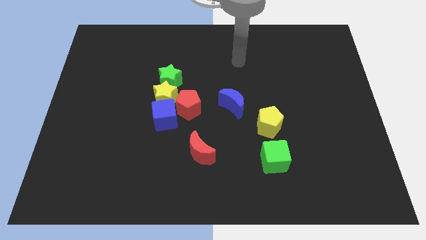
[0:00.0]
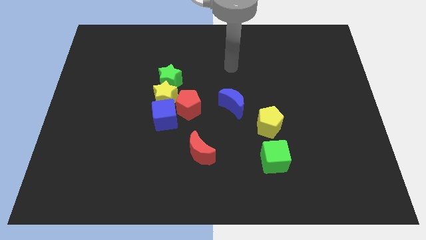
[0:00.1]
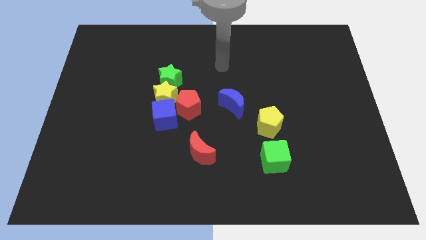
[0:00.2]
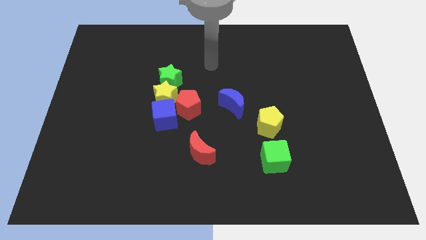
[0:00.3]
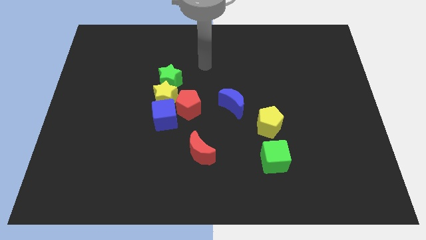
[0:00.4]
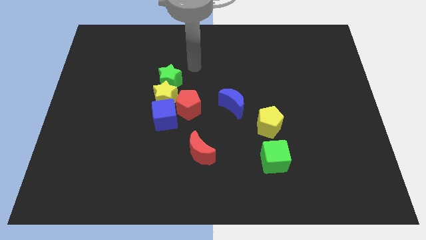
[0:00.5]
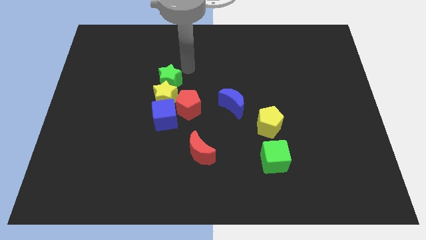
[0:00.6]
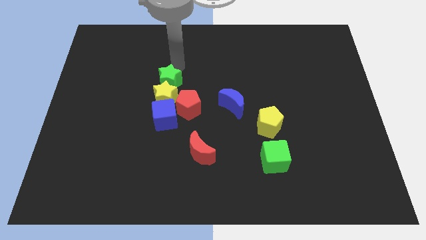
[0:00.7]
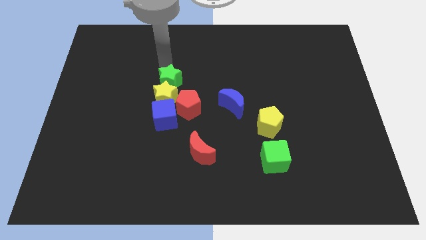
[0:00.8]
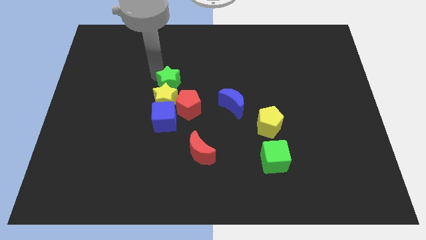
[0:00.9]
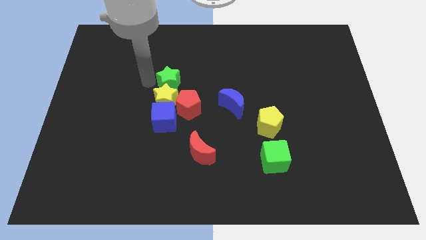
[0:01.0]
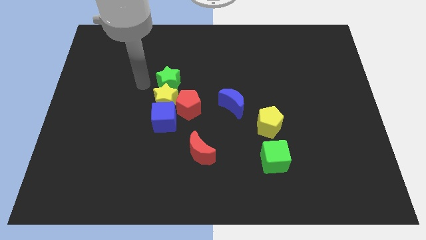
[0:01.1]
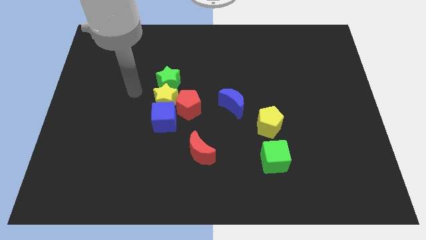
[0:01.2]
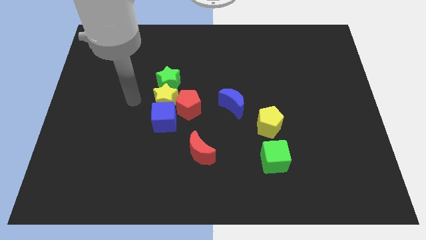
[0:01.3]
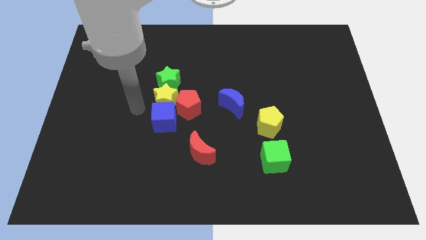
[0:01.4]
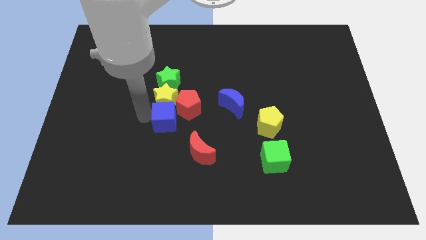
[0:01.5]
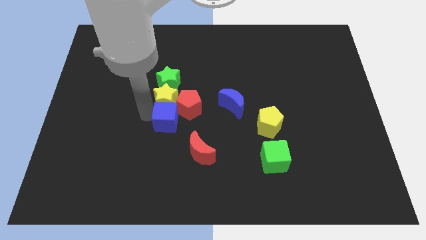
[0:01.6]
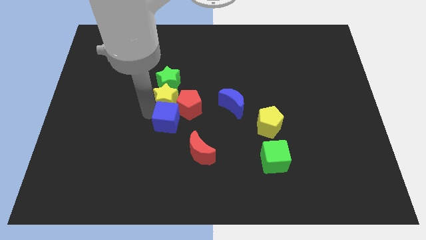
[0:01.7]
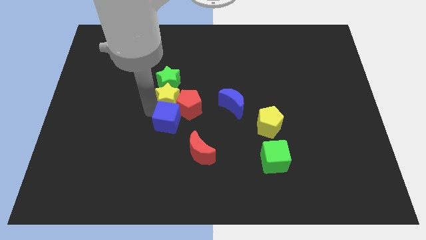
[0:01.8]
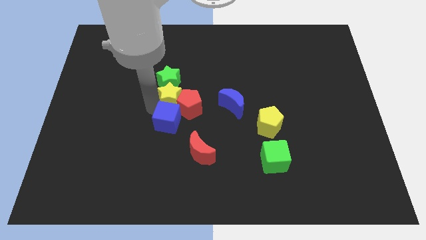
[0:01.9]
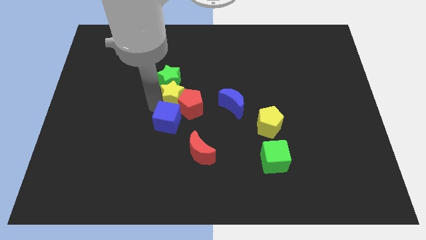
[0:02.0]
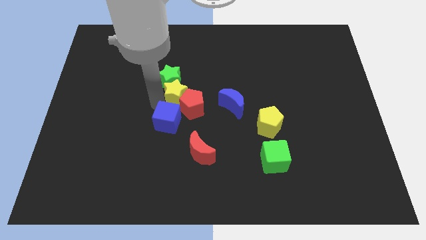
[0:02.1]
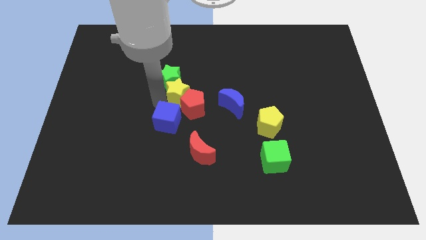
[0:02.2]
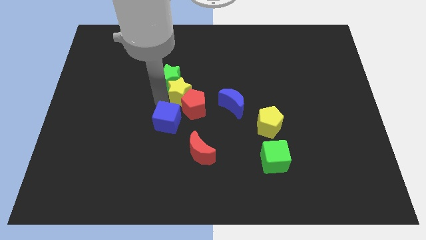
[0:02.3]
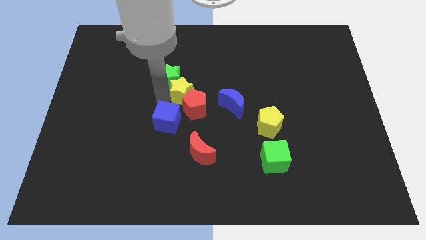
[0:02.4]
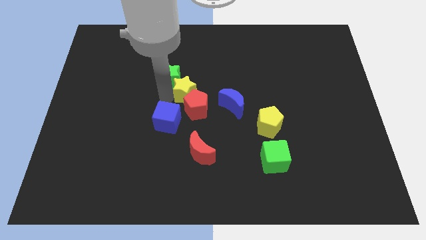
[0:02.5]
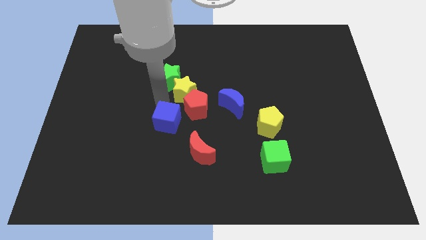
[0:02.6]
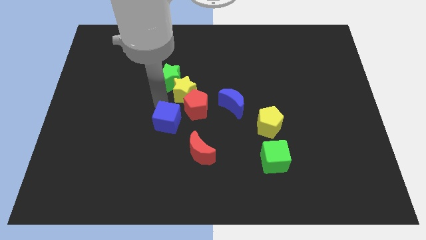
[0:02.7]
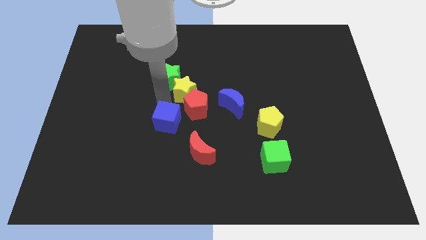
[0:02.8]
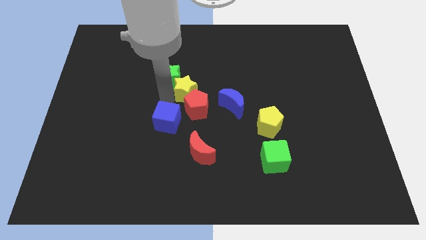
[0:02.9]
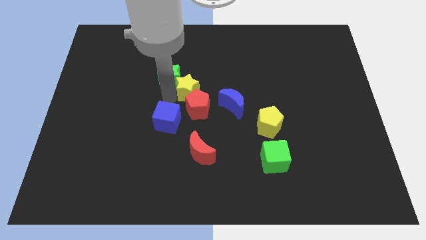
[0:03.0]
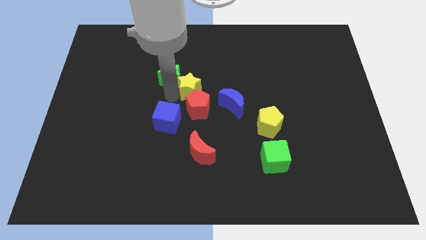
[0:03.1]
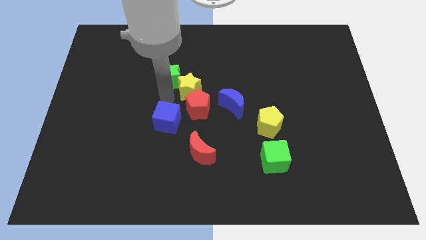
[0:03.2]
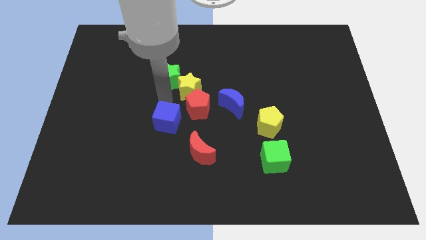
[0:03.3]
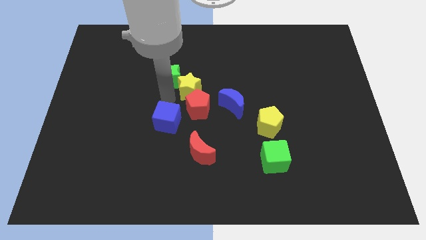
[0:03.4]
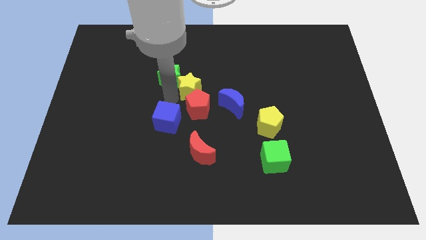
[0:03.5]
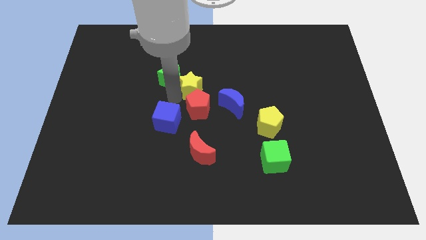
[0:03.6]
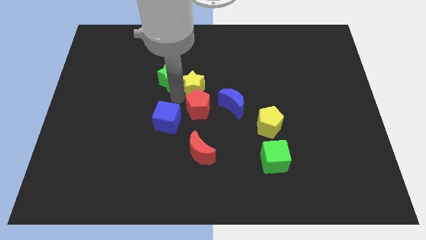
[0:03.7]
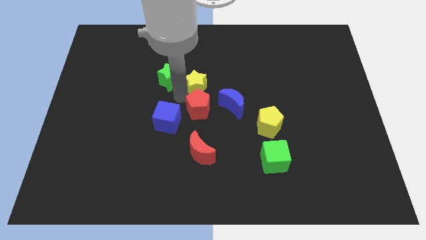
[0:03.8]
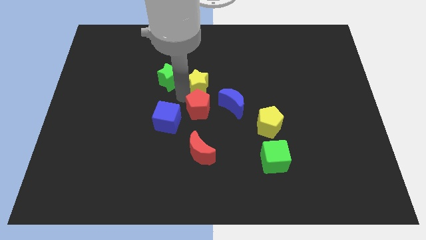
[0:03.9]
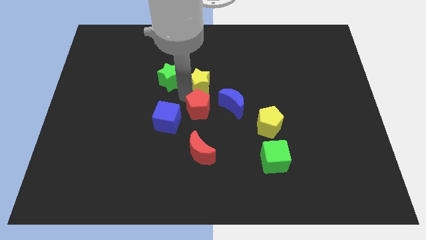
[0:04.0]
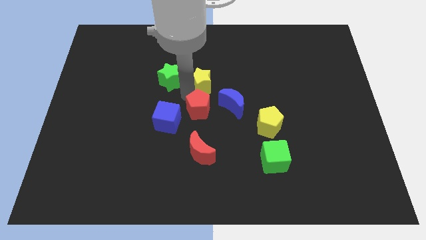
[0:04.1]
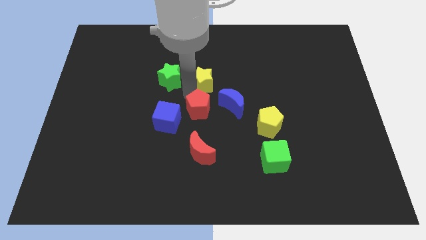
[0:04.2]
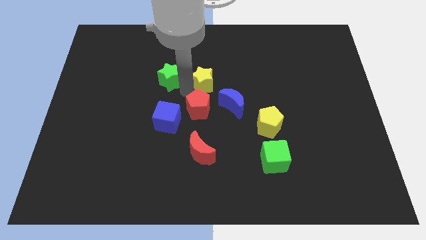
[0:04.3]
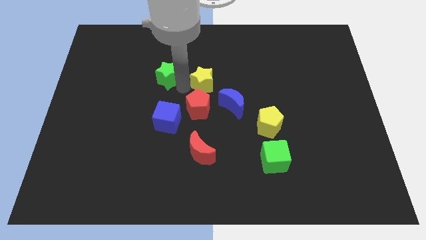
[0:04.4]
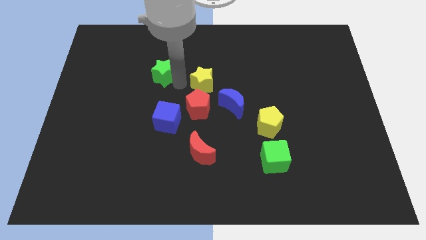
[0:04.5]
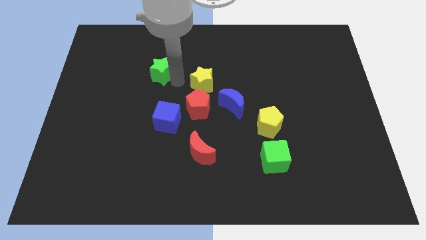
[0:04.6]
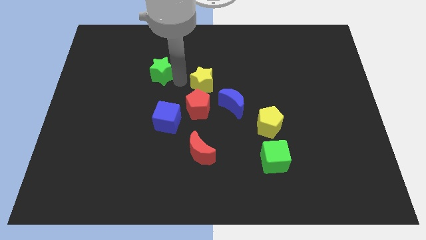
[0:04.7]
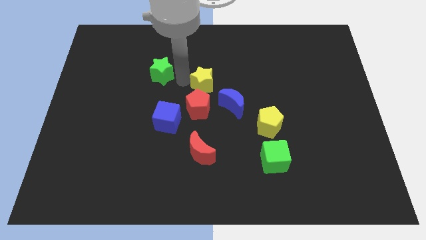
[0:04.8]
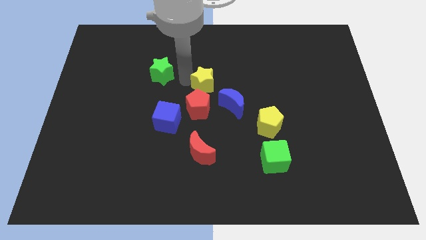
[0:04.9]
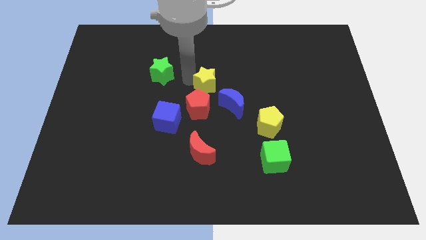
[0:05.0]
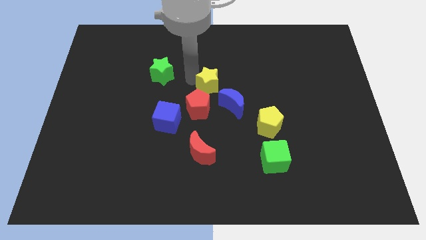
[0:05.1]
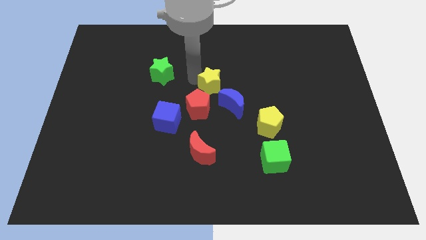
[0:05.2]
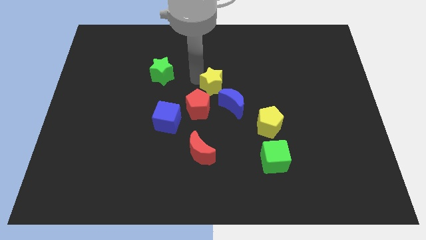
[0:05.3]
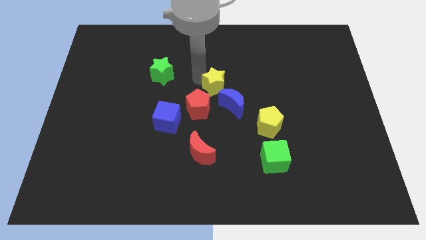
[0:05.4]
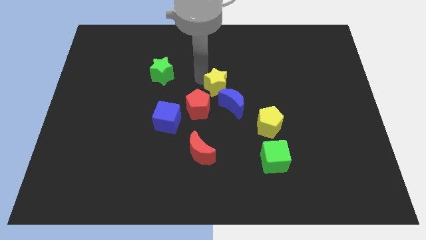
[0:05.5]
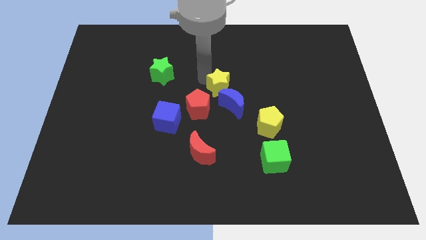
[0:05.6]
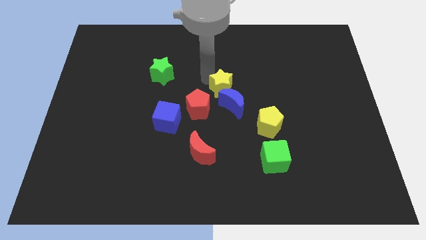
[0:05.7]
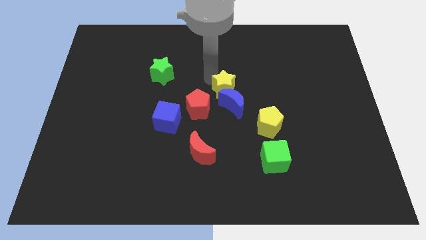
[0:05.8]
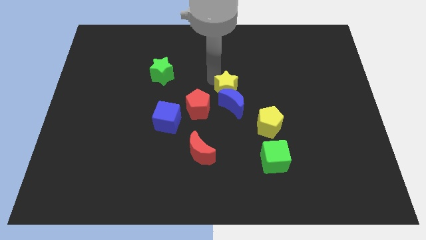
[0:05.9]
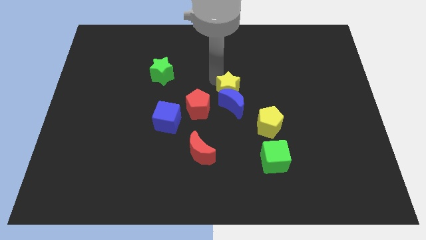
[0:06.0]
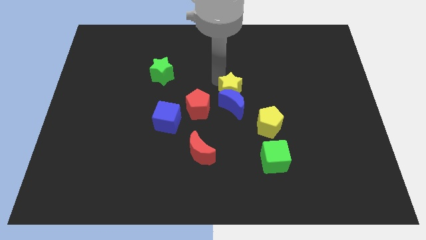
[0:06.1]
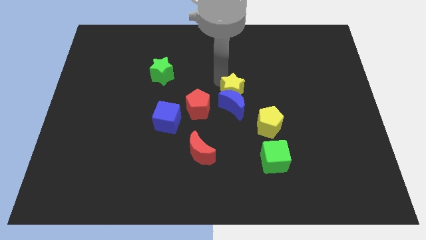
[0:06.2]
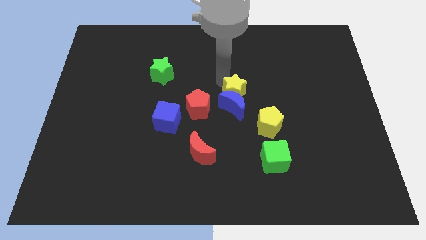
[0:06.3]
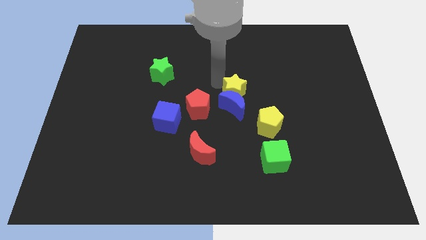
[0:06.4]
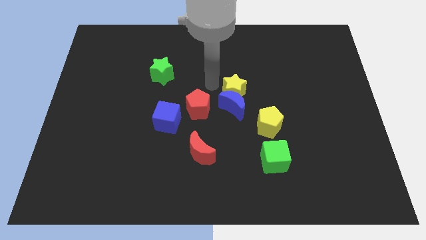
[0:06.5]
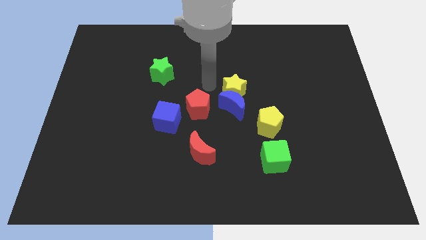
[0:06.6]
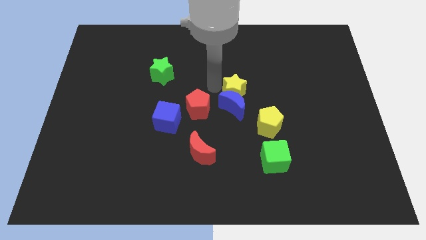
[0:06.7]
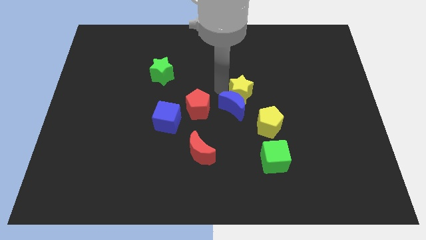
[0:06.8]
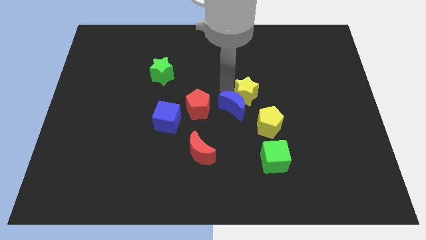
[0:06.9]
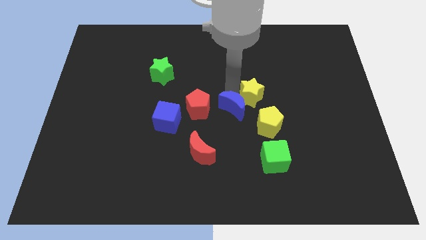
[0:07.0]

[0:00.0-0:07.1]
move the yellow star to the right

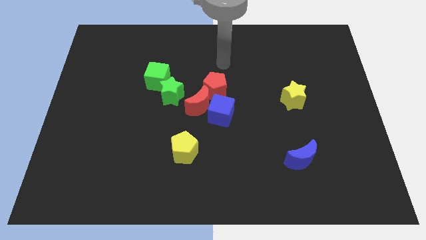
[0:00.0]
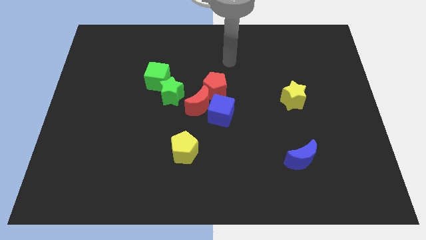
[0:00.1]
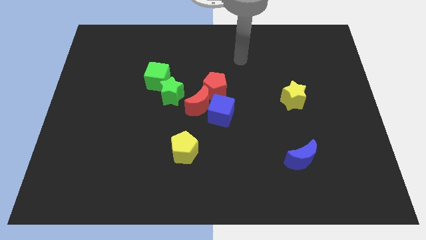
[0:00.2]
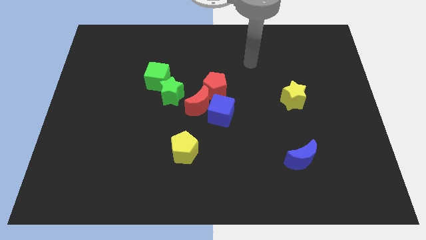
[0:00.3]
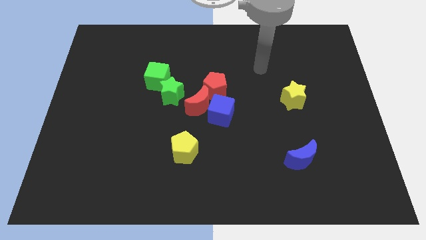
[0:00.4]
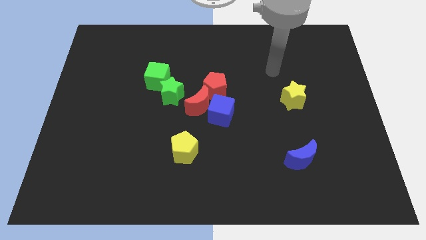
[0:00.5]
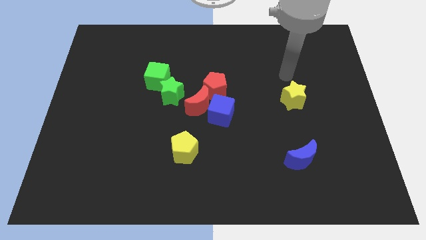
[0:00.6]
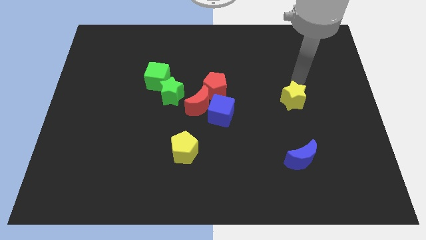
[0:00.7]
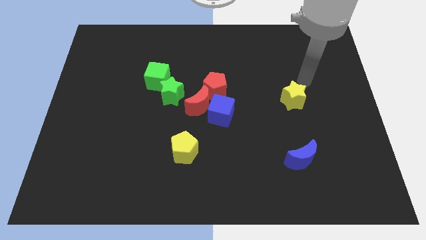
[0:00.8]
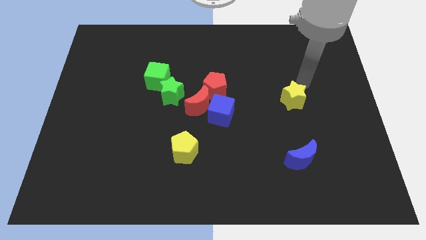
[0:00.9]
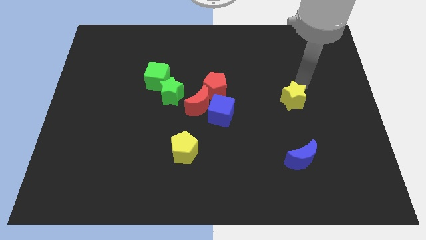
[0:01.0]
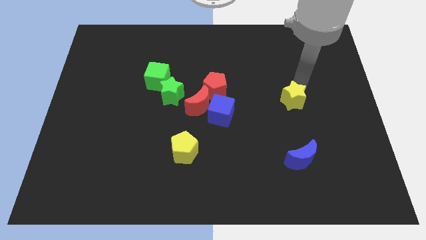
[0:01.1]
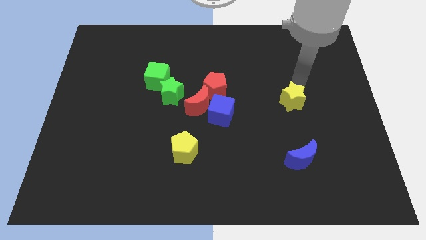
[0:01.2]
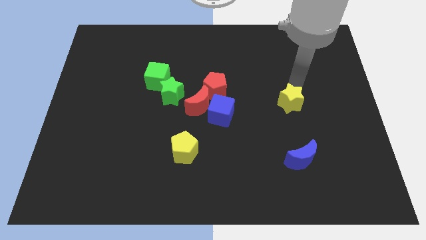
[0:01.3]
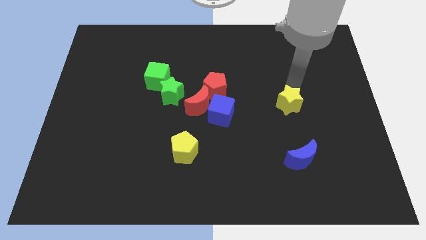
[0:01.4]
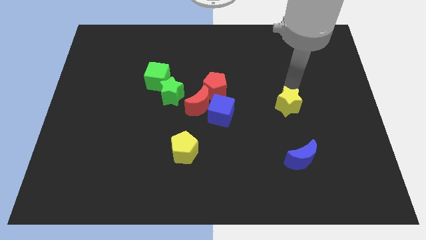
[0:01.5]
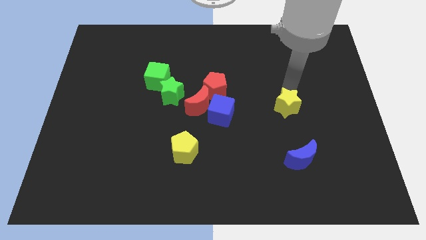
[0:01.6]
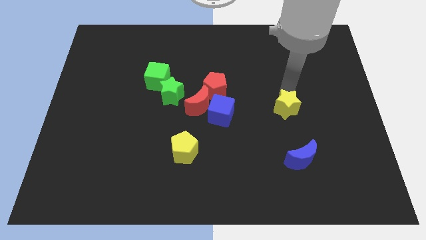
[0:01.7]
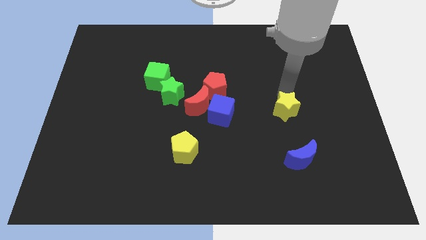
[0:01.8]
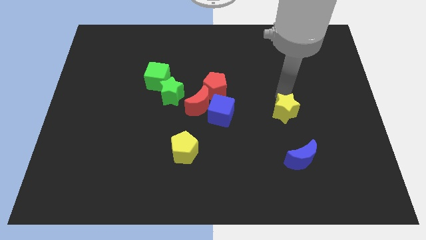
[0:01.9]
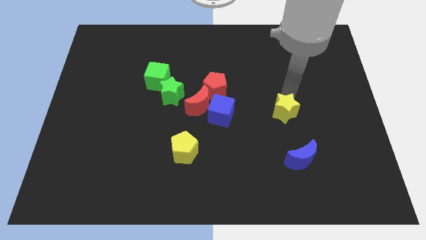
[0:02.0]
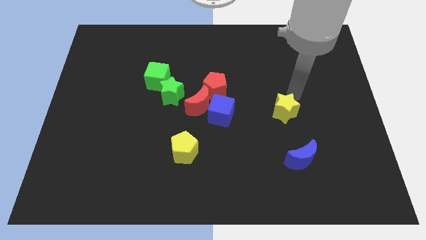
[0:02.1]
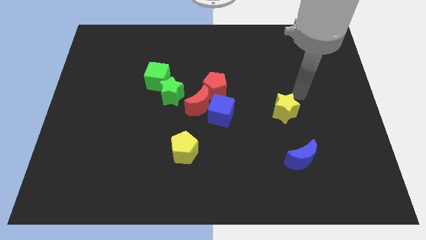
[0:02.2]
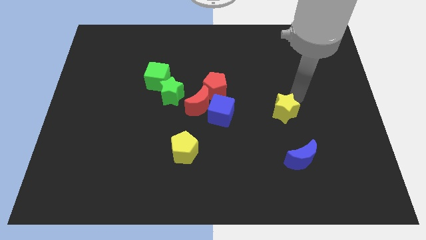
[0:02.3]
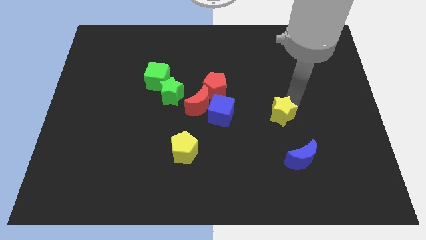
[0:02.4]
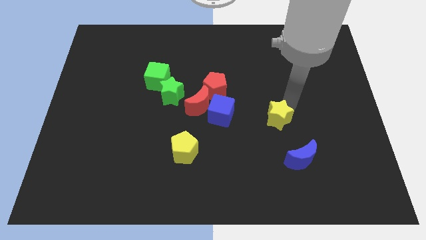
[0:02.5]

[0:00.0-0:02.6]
push the yellow star a bit diagonally down and left
